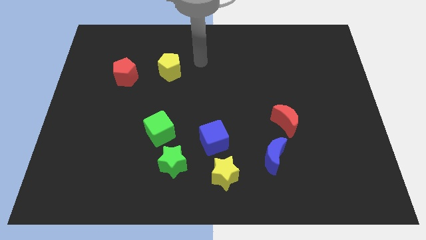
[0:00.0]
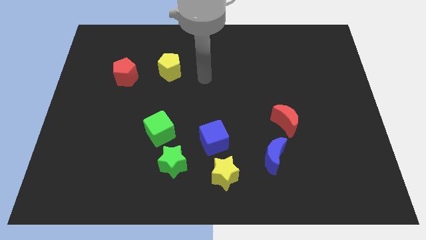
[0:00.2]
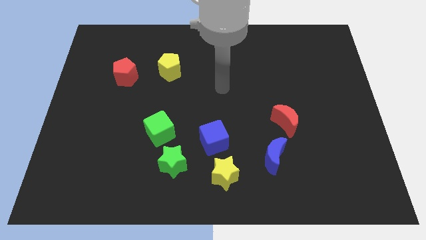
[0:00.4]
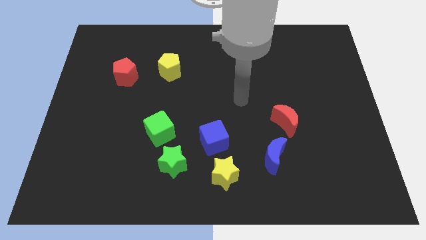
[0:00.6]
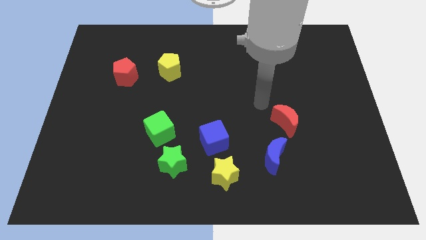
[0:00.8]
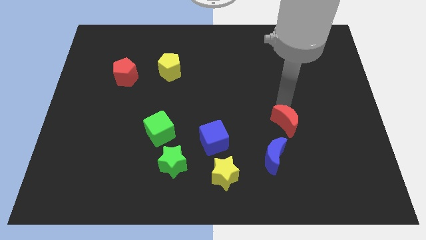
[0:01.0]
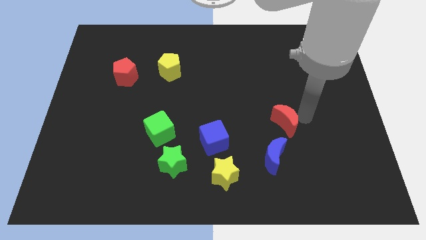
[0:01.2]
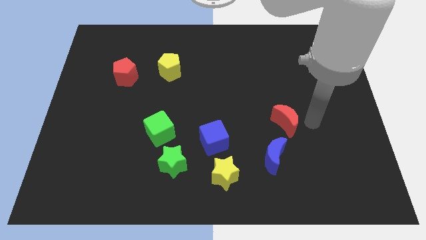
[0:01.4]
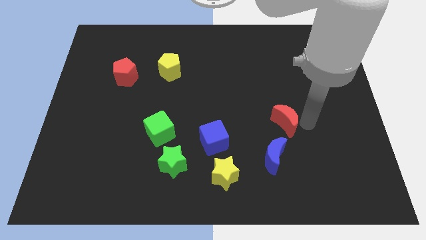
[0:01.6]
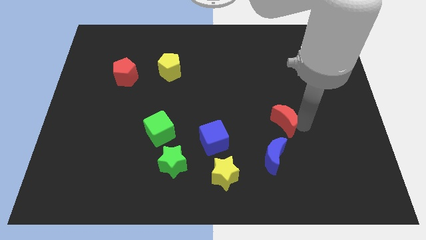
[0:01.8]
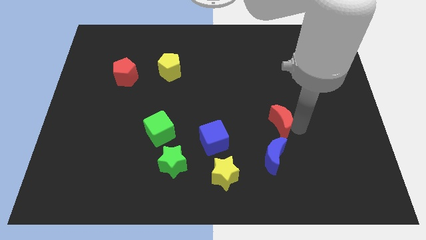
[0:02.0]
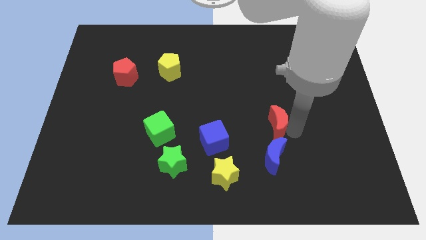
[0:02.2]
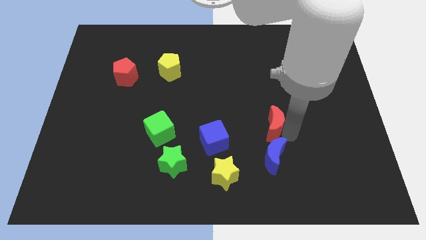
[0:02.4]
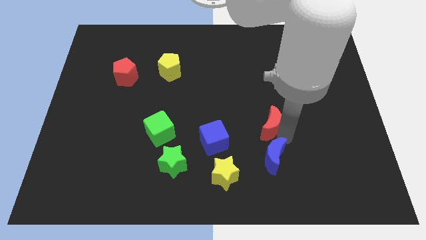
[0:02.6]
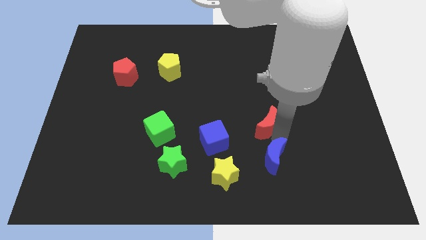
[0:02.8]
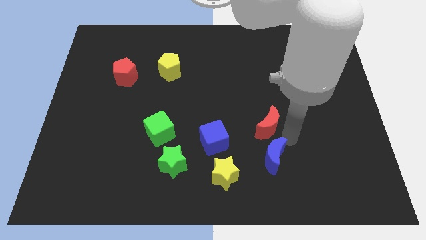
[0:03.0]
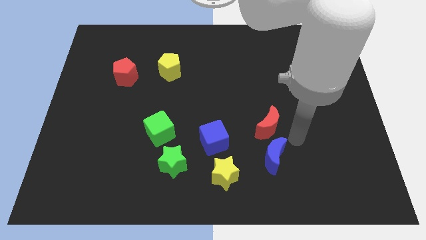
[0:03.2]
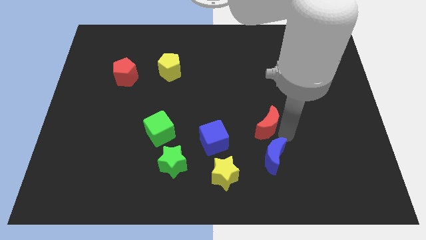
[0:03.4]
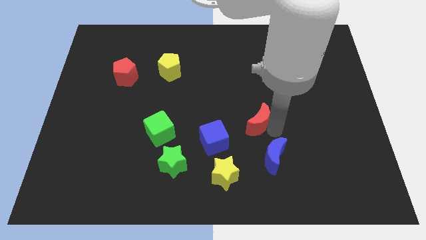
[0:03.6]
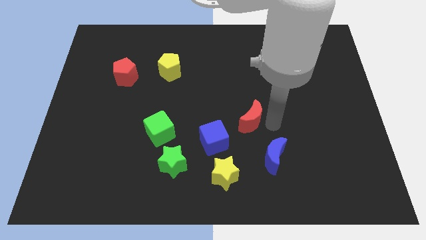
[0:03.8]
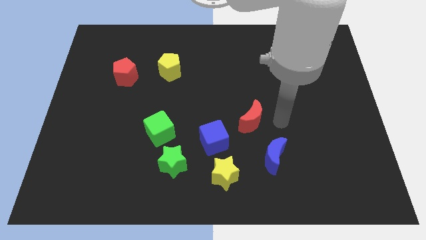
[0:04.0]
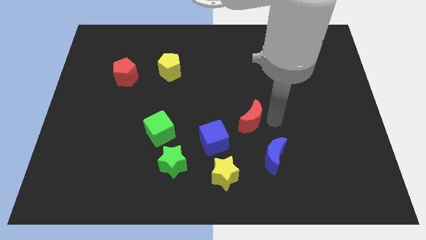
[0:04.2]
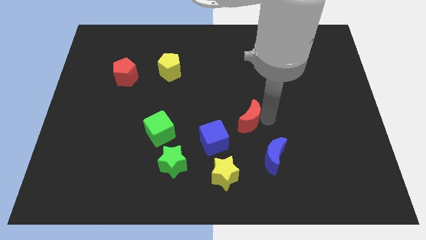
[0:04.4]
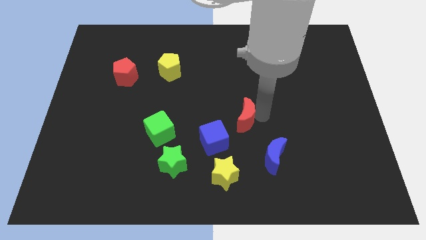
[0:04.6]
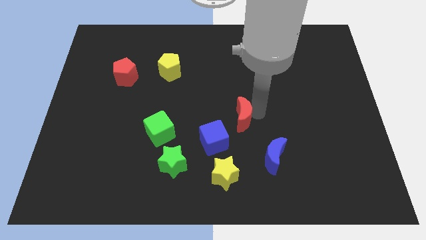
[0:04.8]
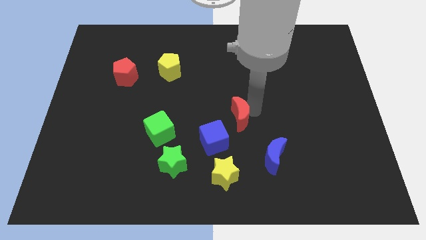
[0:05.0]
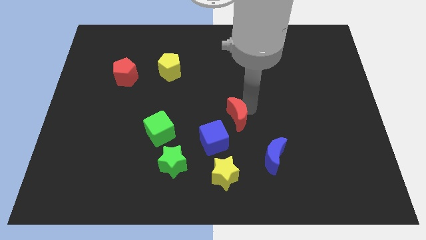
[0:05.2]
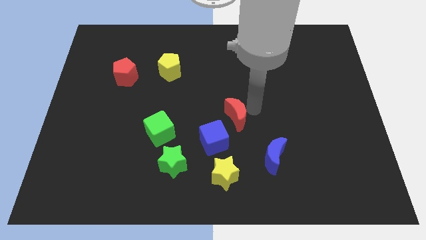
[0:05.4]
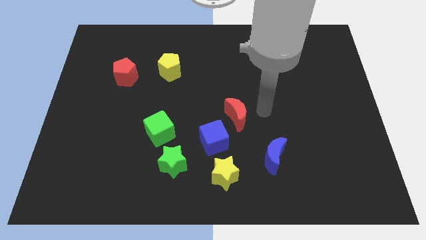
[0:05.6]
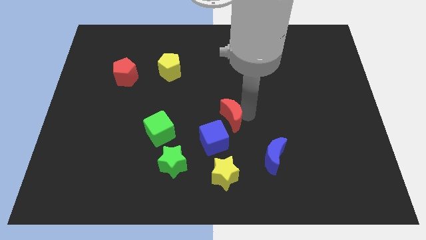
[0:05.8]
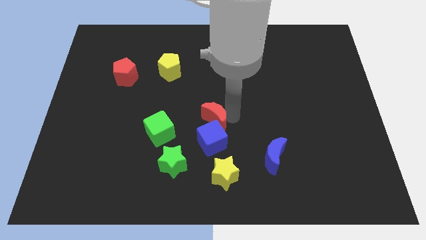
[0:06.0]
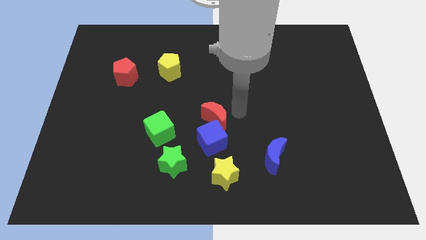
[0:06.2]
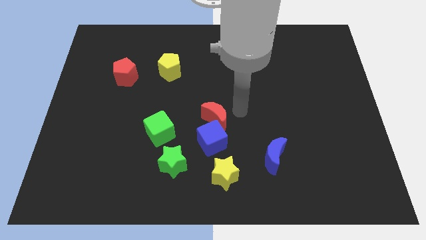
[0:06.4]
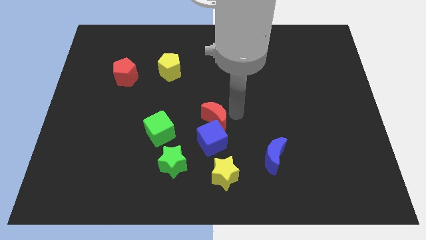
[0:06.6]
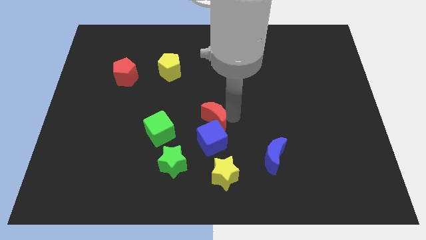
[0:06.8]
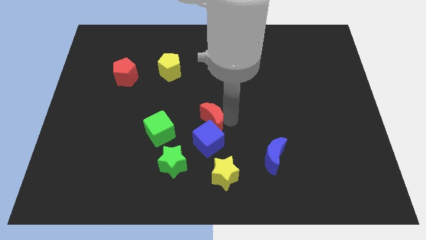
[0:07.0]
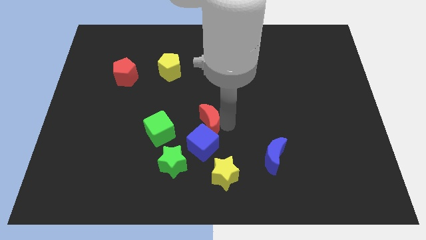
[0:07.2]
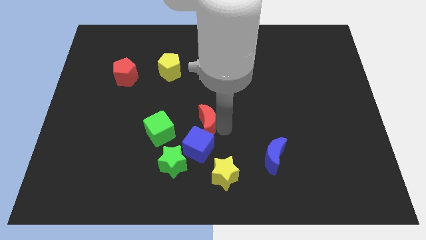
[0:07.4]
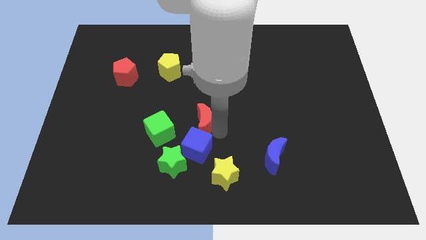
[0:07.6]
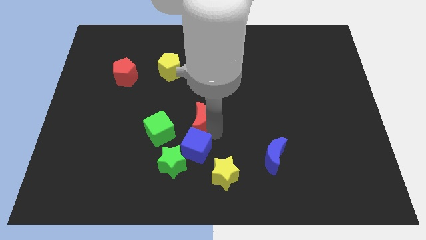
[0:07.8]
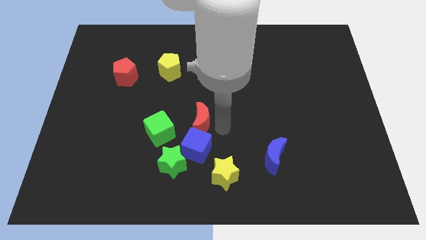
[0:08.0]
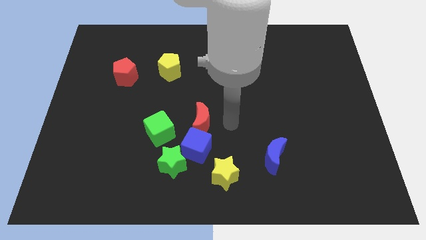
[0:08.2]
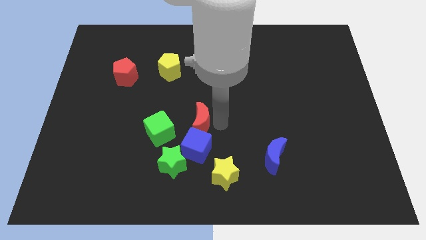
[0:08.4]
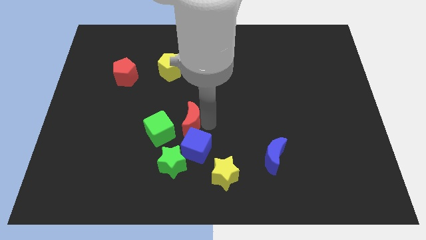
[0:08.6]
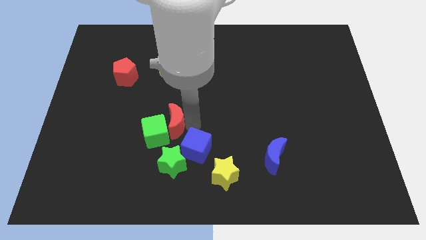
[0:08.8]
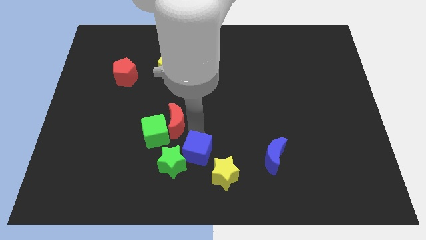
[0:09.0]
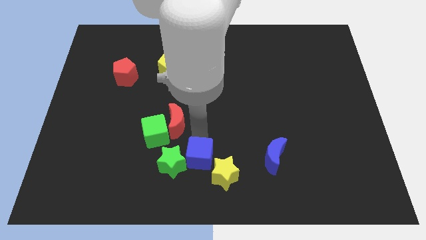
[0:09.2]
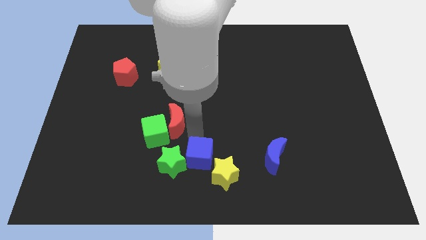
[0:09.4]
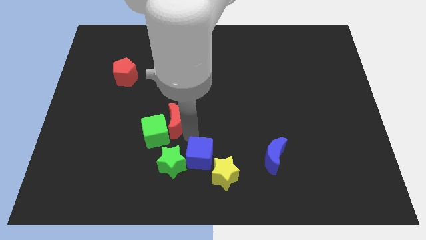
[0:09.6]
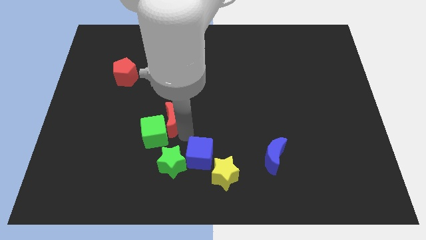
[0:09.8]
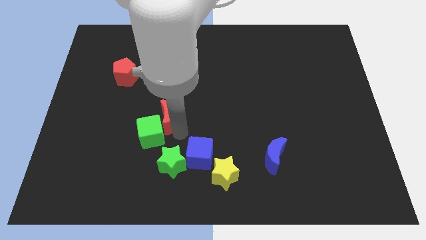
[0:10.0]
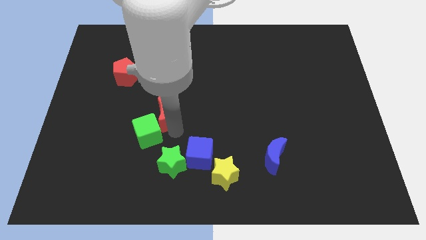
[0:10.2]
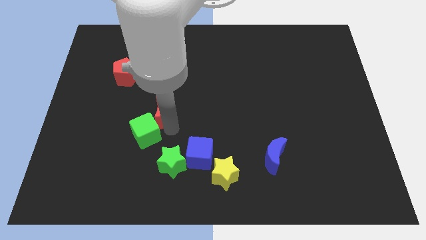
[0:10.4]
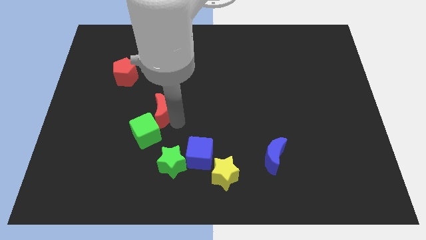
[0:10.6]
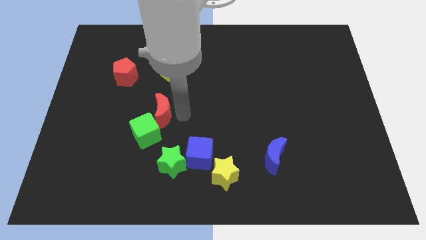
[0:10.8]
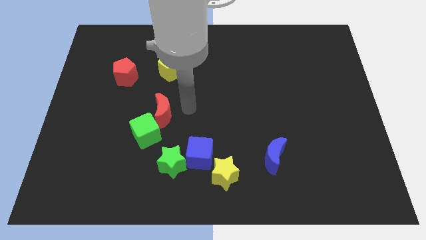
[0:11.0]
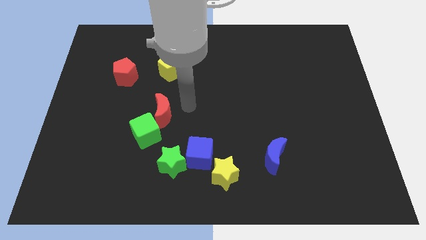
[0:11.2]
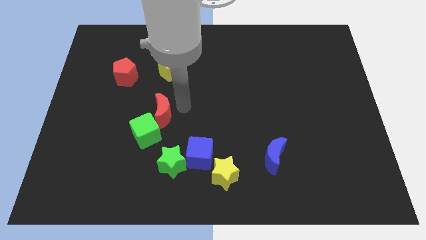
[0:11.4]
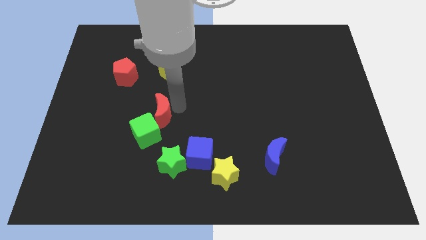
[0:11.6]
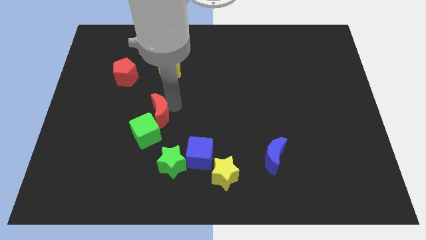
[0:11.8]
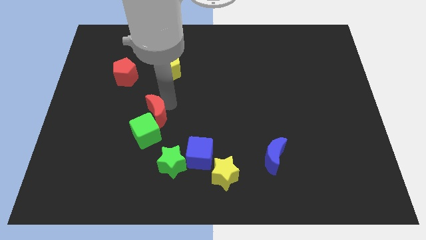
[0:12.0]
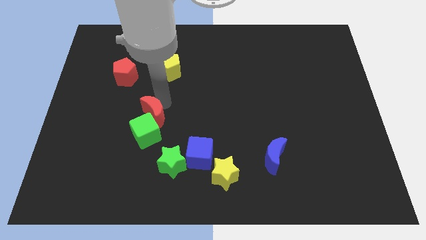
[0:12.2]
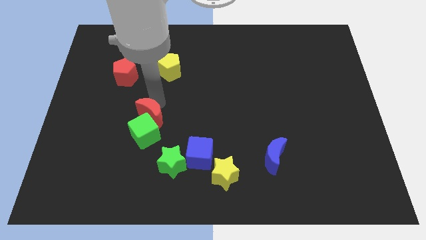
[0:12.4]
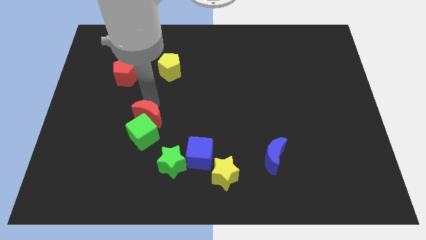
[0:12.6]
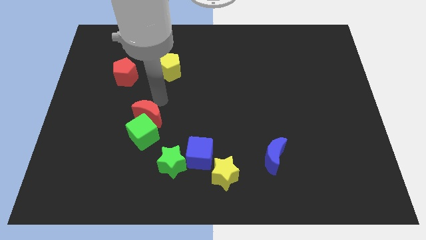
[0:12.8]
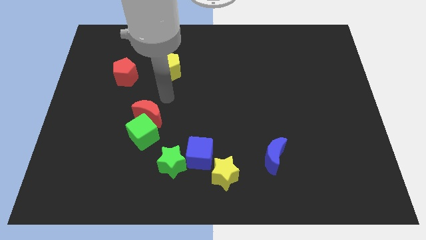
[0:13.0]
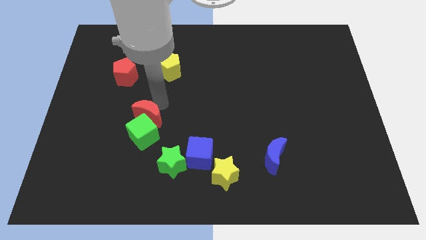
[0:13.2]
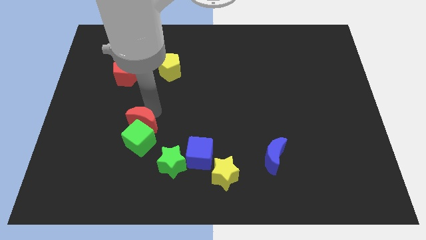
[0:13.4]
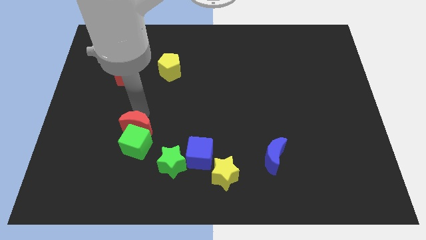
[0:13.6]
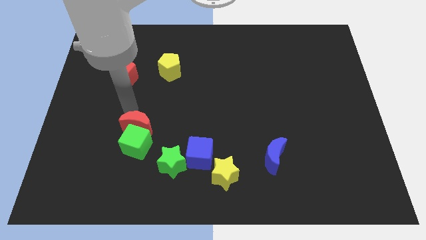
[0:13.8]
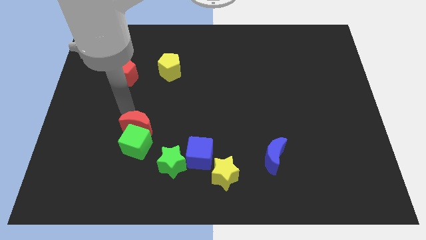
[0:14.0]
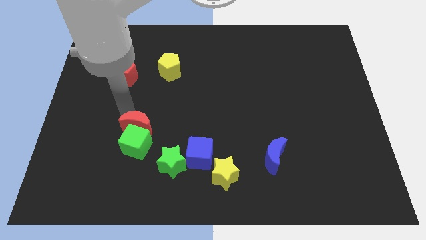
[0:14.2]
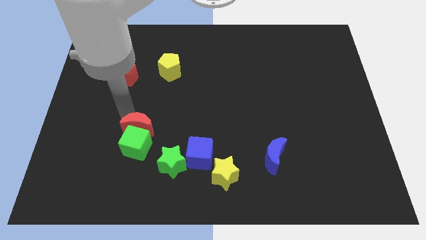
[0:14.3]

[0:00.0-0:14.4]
push the red moon to the top left side of the green star

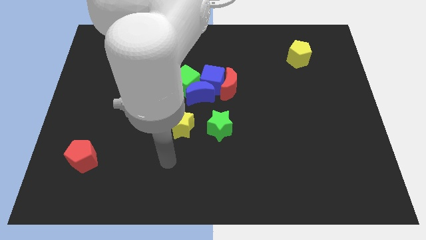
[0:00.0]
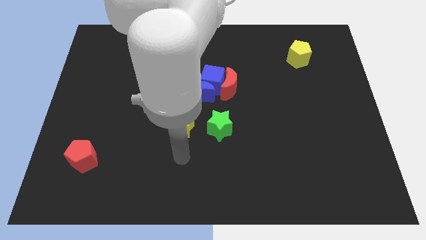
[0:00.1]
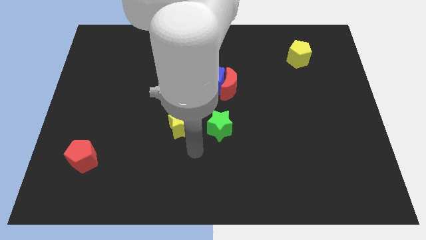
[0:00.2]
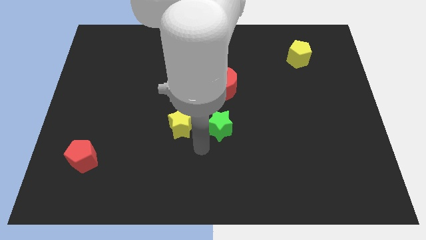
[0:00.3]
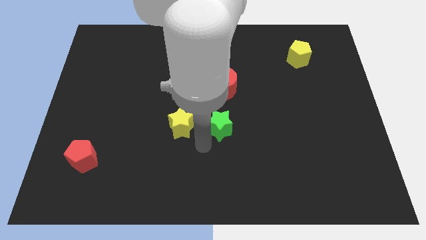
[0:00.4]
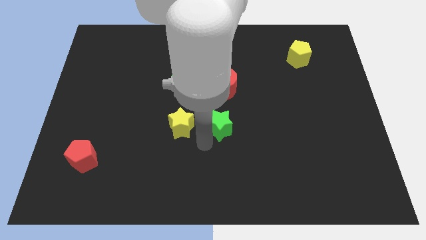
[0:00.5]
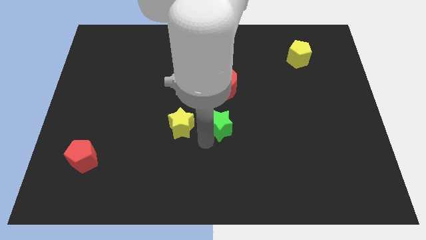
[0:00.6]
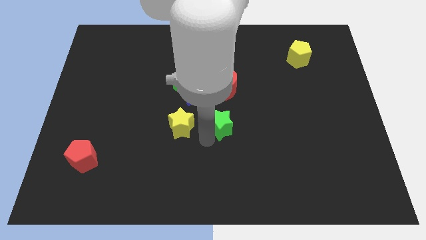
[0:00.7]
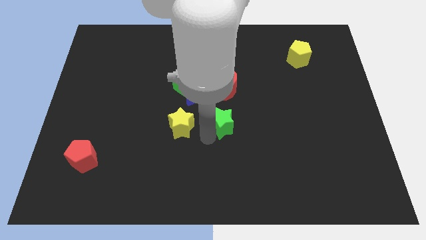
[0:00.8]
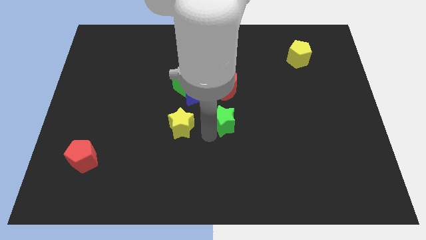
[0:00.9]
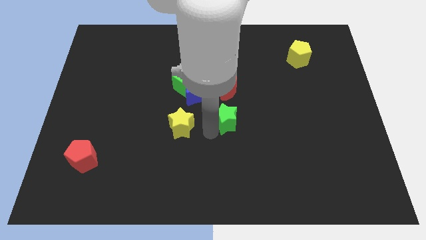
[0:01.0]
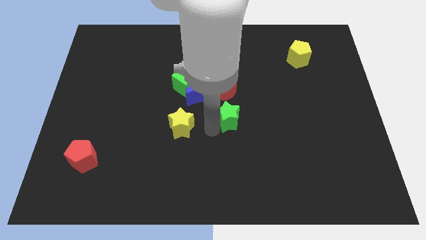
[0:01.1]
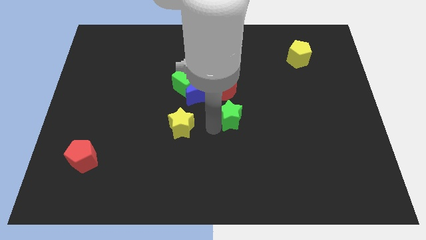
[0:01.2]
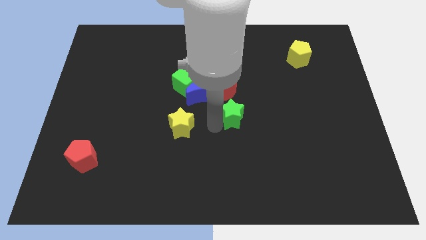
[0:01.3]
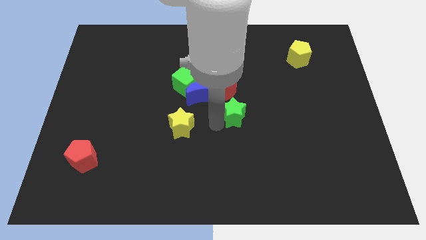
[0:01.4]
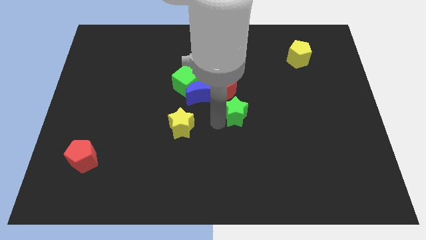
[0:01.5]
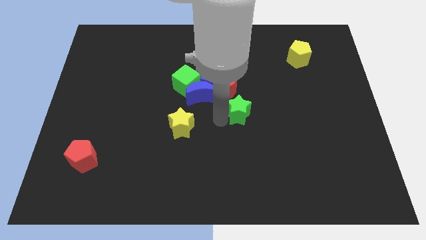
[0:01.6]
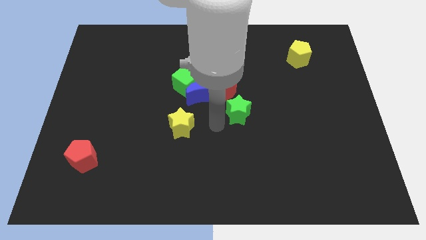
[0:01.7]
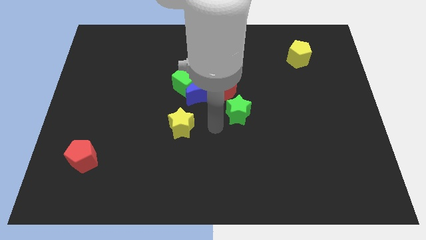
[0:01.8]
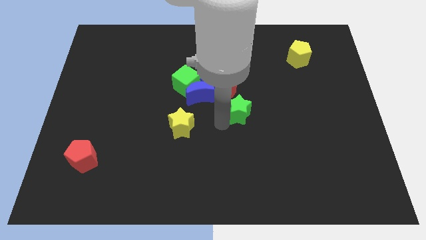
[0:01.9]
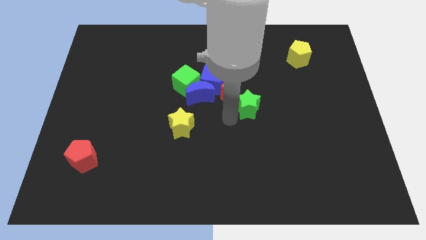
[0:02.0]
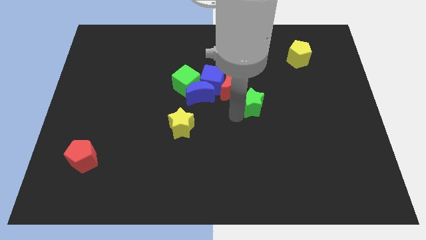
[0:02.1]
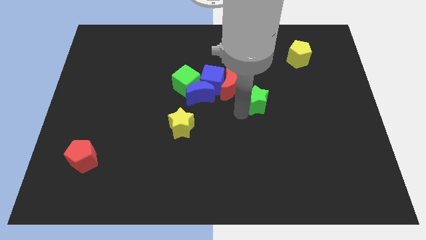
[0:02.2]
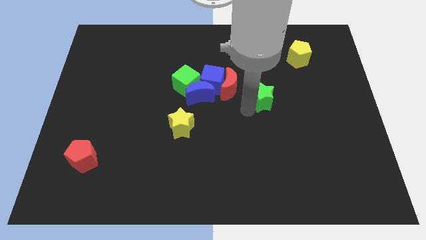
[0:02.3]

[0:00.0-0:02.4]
push the green star right of the red moon
